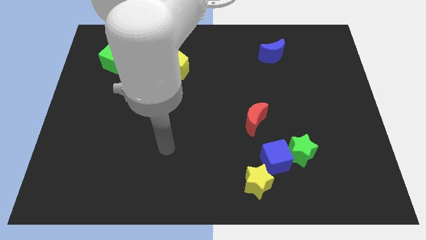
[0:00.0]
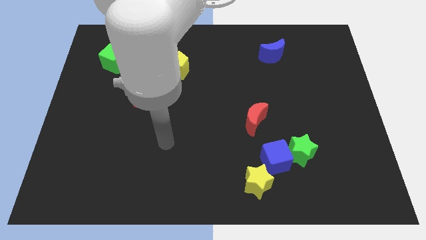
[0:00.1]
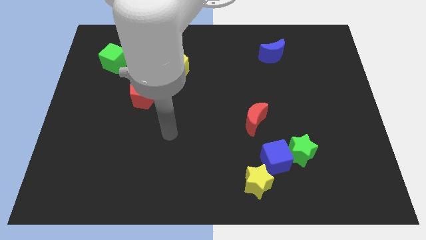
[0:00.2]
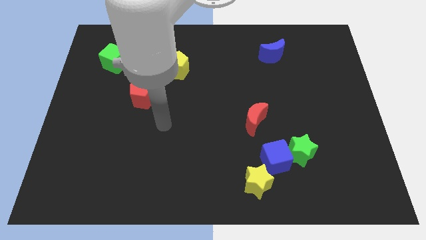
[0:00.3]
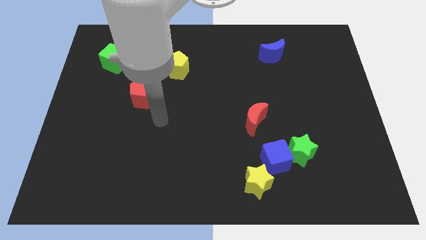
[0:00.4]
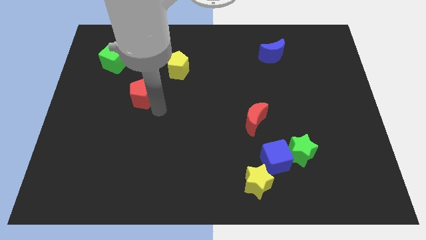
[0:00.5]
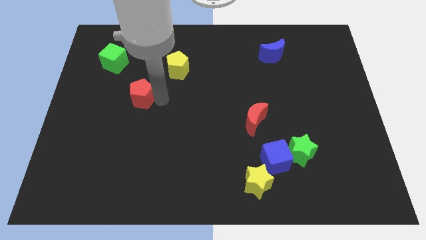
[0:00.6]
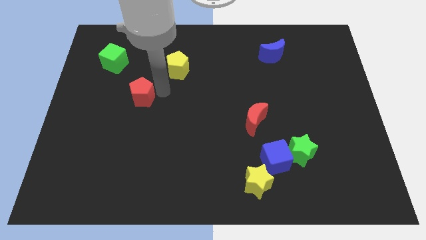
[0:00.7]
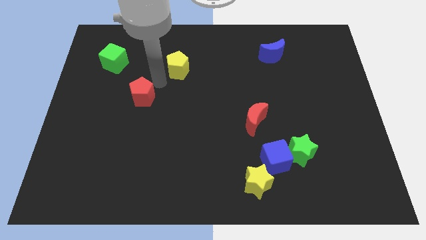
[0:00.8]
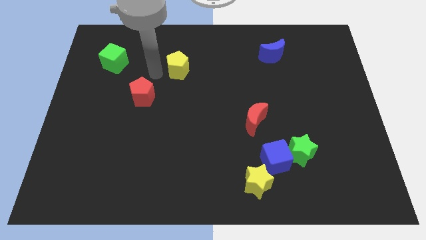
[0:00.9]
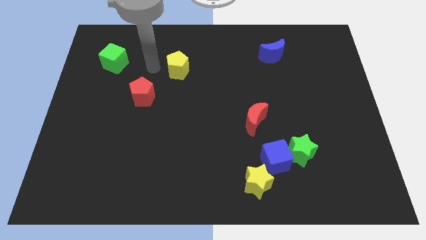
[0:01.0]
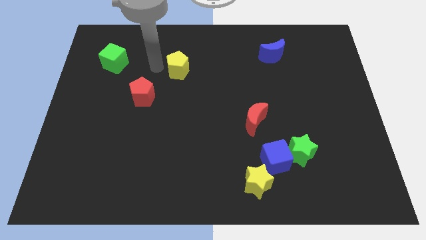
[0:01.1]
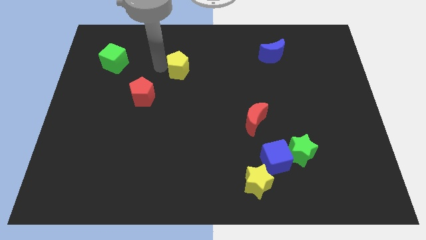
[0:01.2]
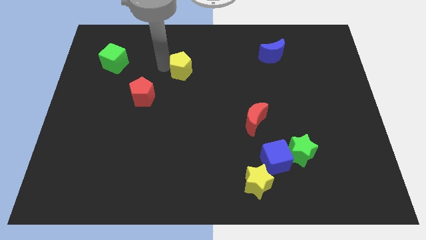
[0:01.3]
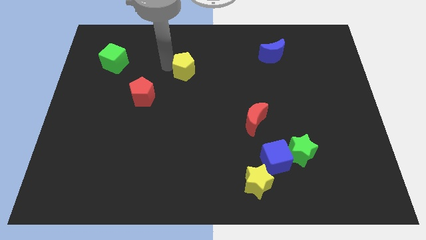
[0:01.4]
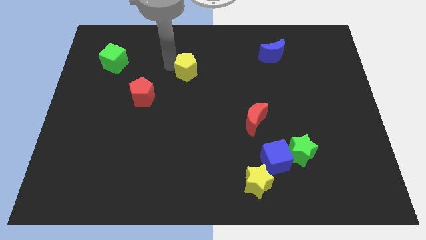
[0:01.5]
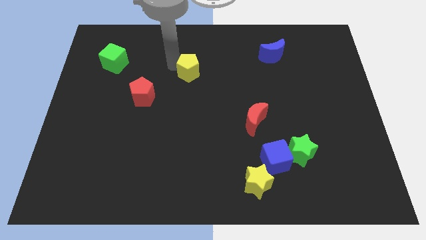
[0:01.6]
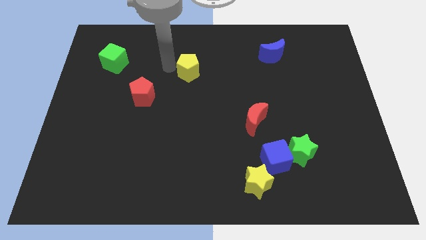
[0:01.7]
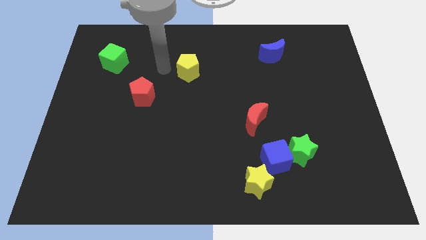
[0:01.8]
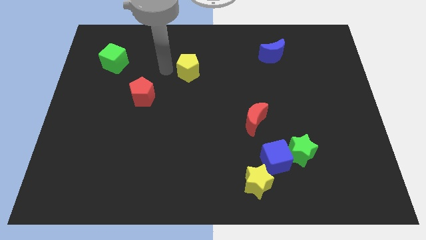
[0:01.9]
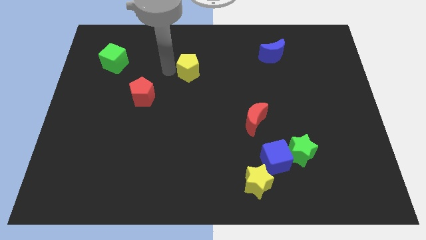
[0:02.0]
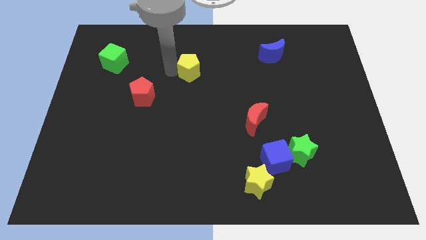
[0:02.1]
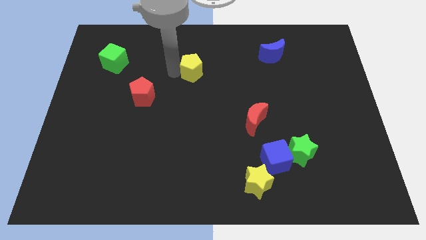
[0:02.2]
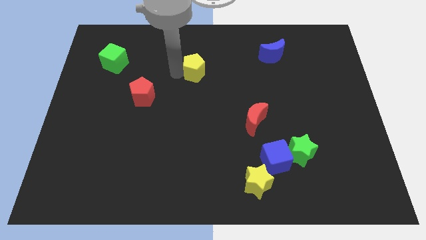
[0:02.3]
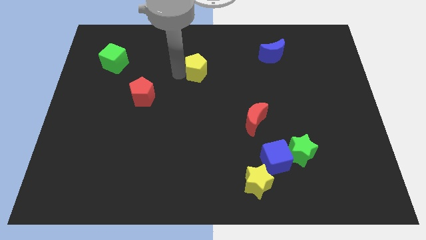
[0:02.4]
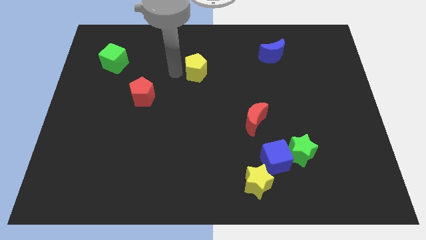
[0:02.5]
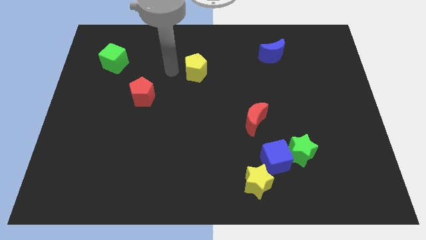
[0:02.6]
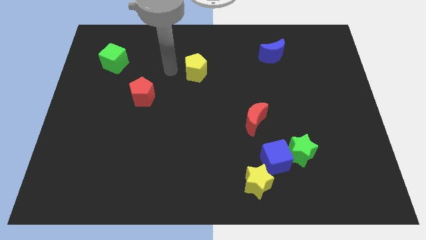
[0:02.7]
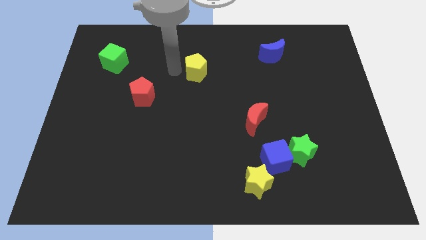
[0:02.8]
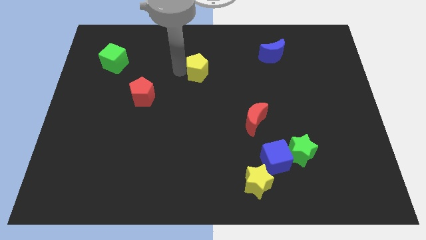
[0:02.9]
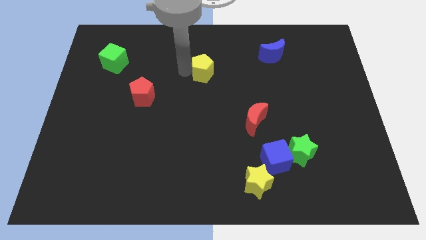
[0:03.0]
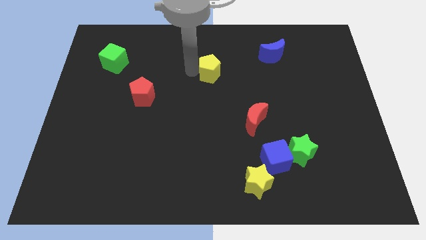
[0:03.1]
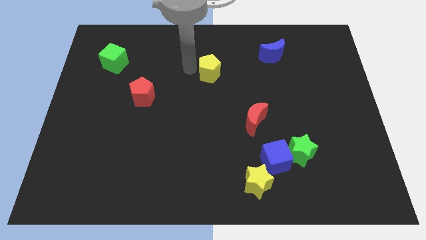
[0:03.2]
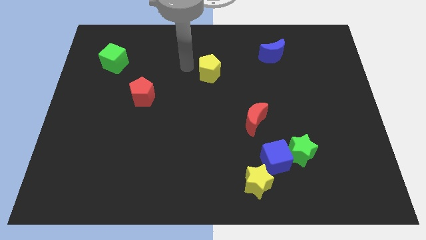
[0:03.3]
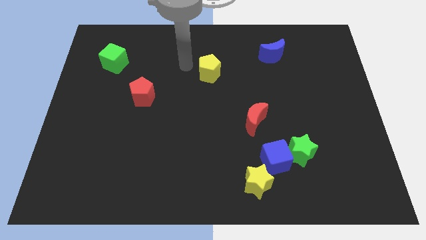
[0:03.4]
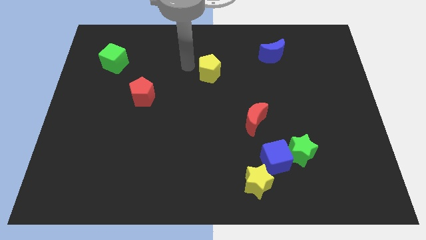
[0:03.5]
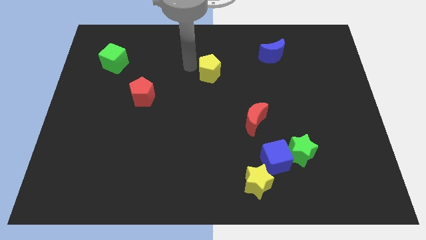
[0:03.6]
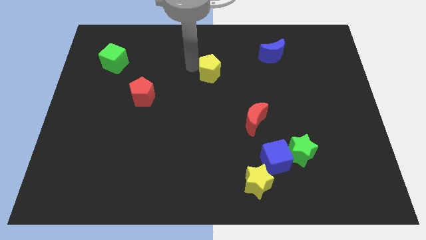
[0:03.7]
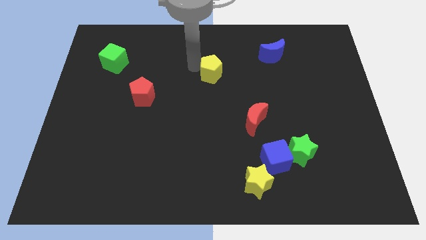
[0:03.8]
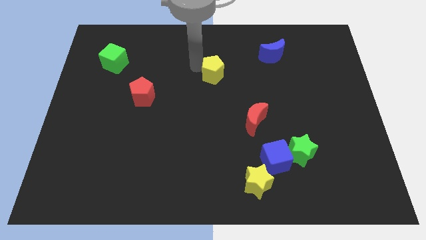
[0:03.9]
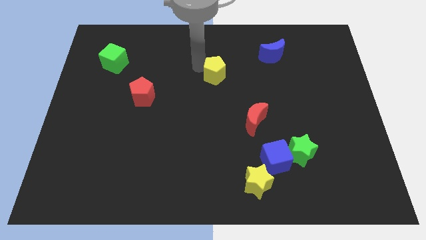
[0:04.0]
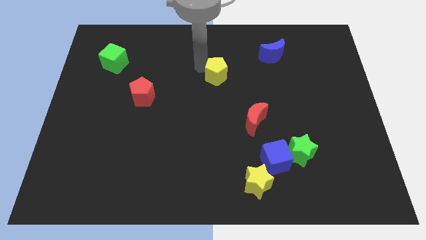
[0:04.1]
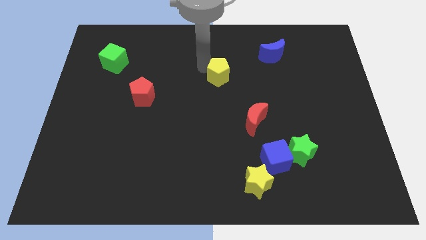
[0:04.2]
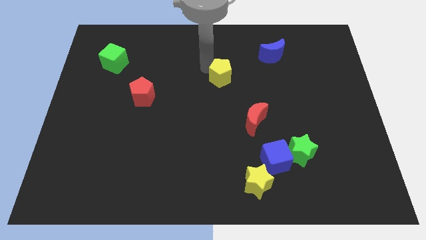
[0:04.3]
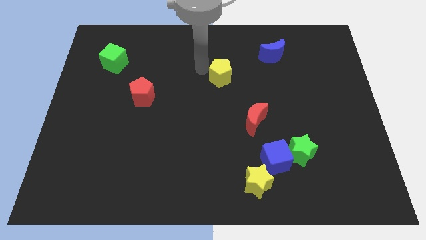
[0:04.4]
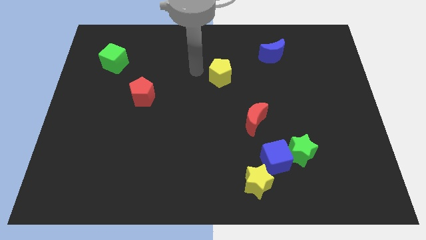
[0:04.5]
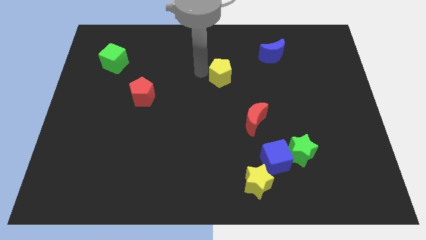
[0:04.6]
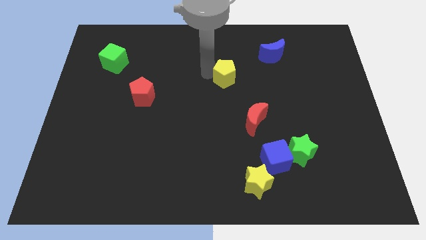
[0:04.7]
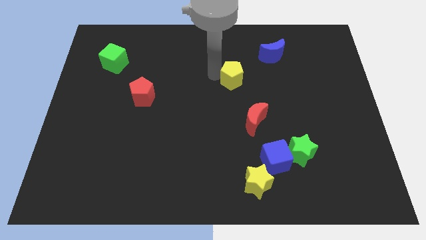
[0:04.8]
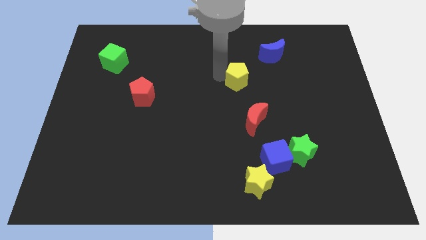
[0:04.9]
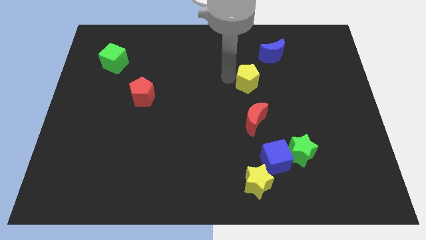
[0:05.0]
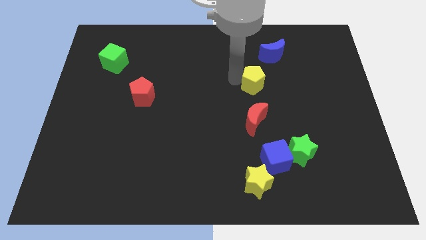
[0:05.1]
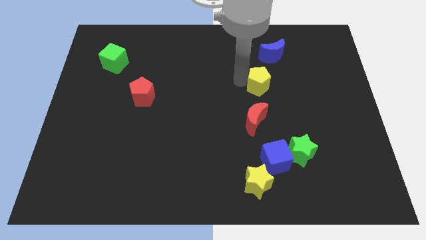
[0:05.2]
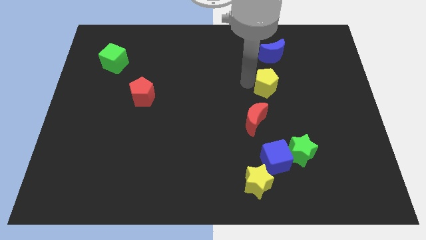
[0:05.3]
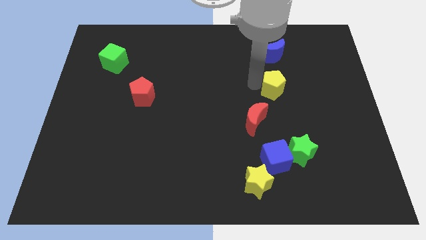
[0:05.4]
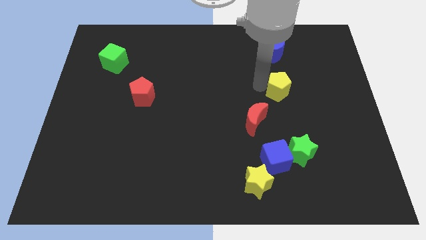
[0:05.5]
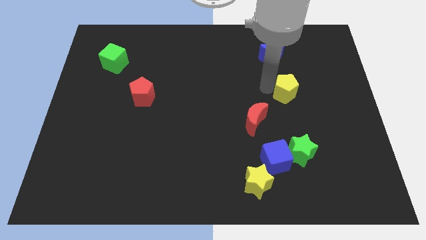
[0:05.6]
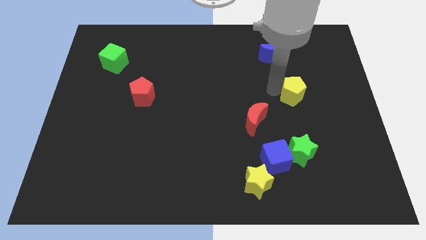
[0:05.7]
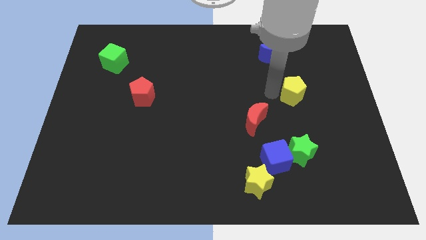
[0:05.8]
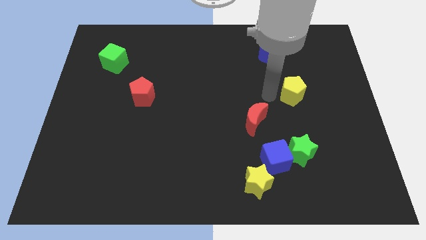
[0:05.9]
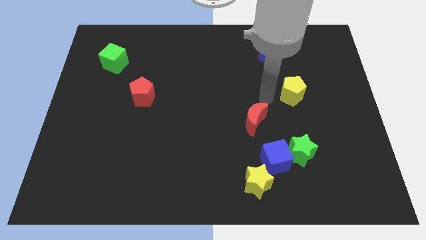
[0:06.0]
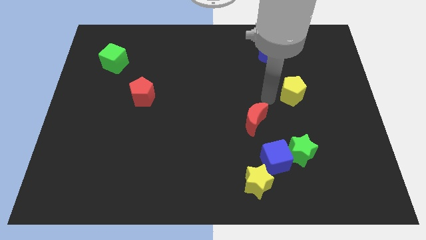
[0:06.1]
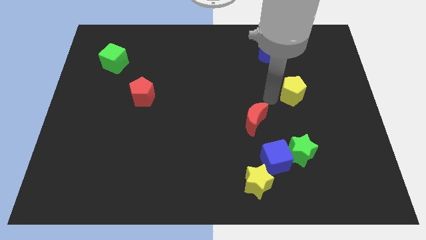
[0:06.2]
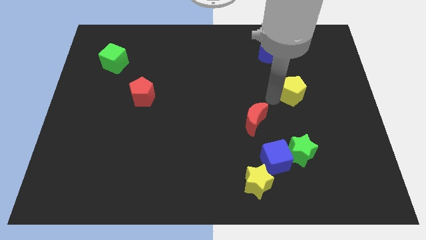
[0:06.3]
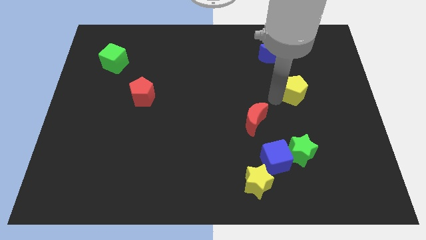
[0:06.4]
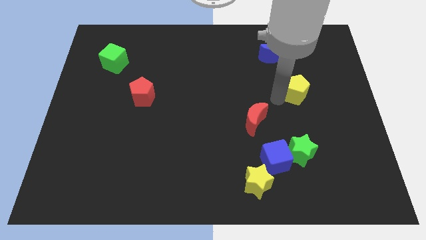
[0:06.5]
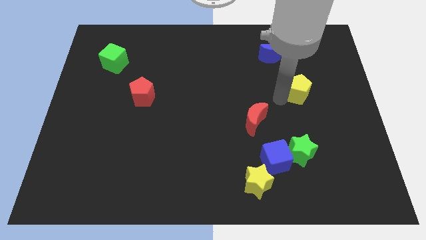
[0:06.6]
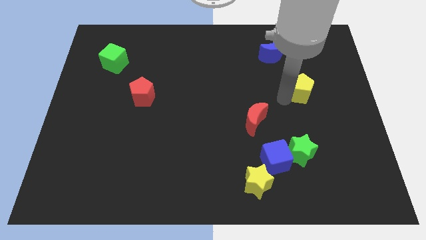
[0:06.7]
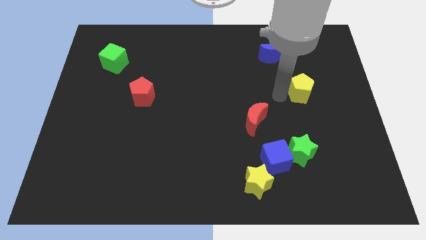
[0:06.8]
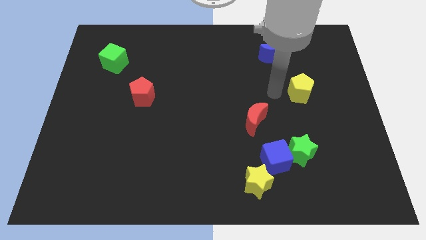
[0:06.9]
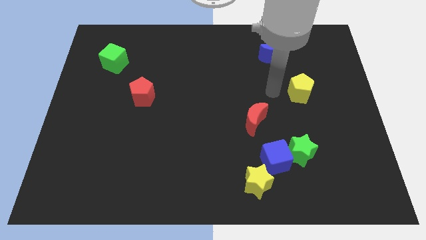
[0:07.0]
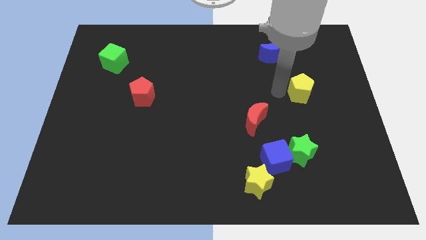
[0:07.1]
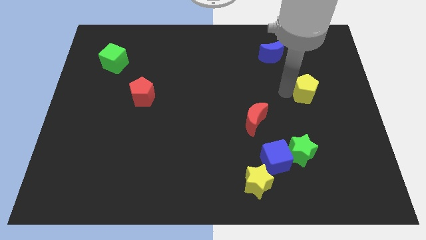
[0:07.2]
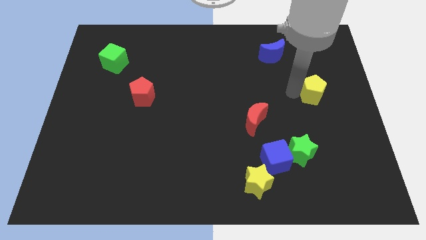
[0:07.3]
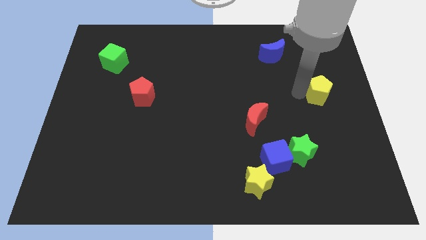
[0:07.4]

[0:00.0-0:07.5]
move the yellow pentagon to the center right
